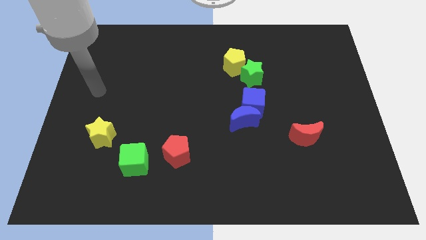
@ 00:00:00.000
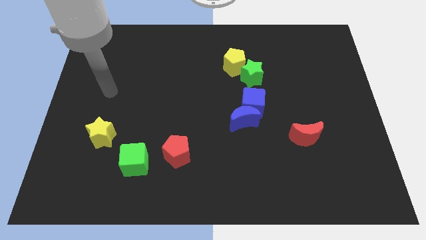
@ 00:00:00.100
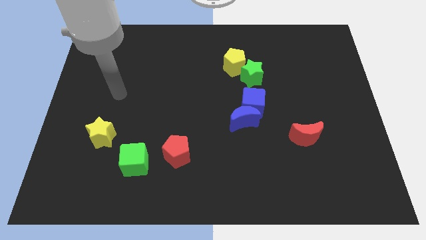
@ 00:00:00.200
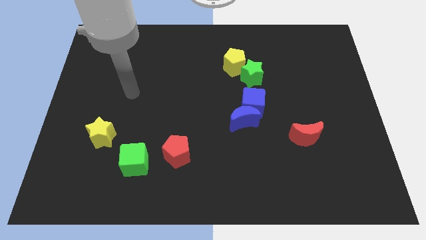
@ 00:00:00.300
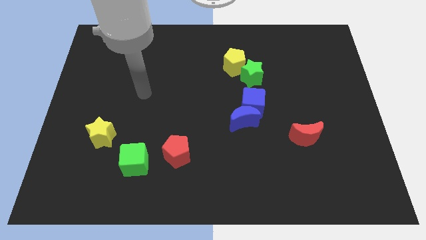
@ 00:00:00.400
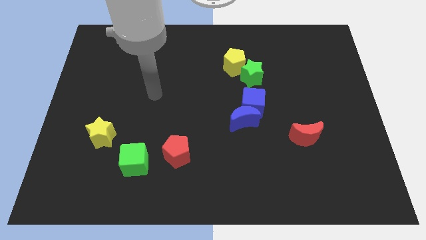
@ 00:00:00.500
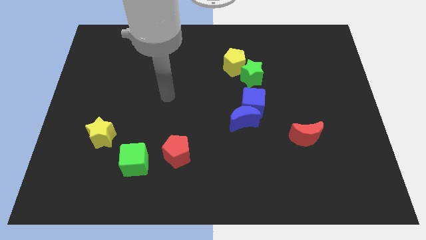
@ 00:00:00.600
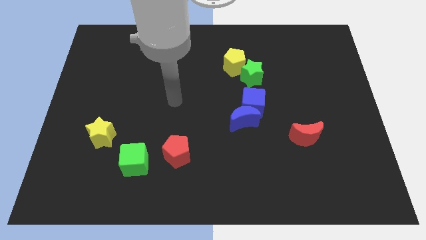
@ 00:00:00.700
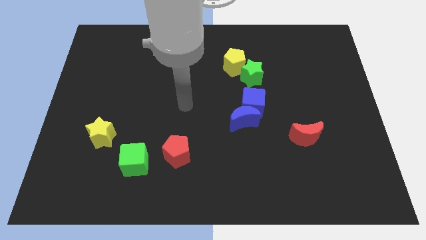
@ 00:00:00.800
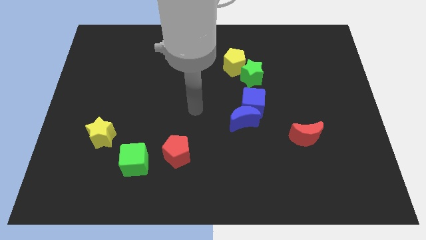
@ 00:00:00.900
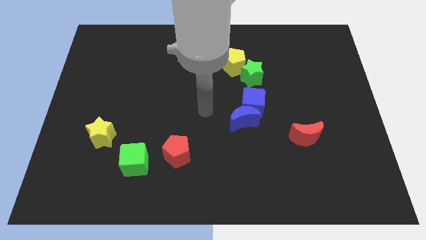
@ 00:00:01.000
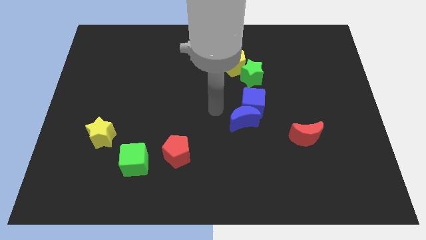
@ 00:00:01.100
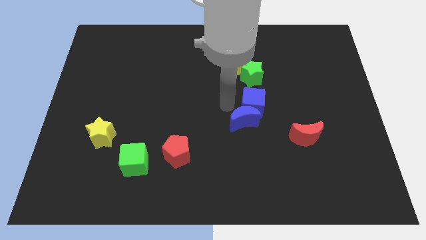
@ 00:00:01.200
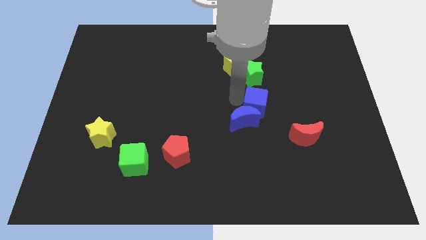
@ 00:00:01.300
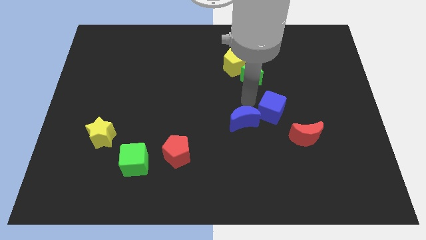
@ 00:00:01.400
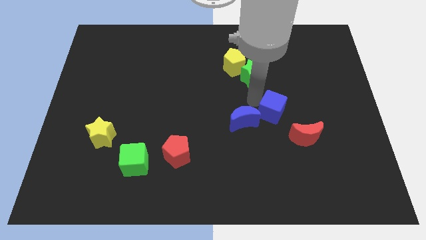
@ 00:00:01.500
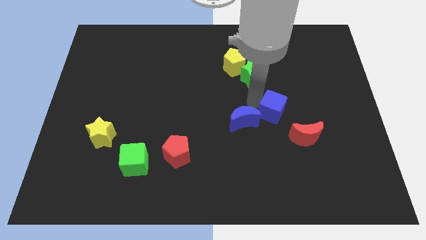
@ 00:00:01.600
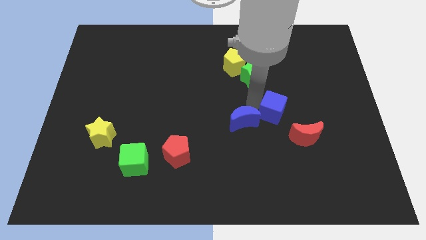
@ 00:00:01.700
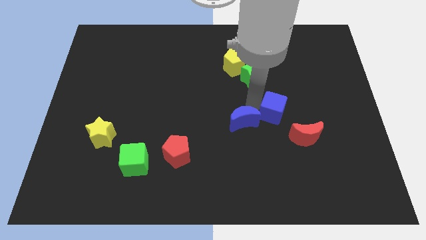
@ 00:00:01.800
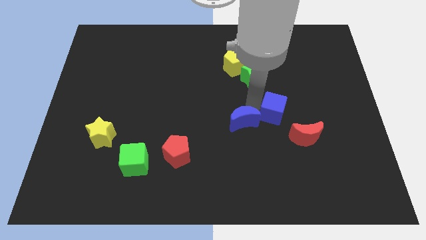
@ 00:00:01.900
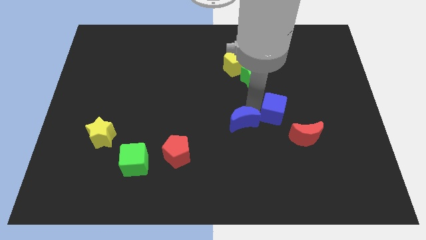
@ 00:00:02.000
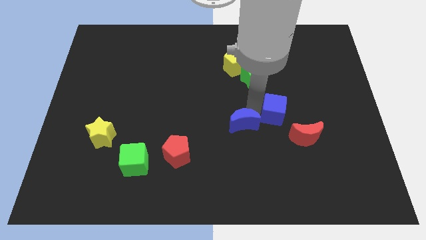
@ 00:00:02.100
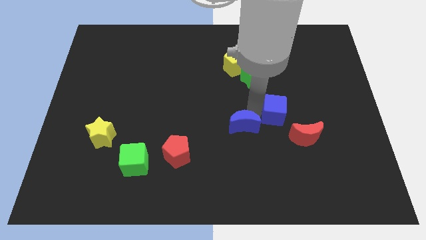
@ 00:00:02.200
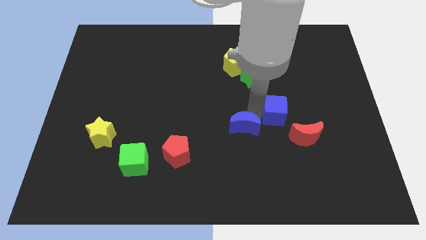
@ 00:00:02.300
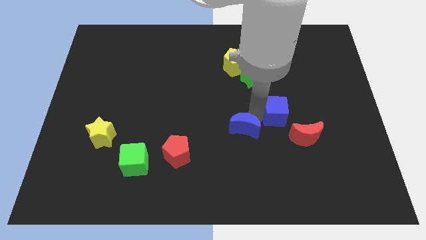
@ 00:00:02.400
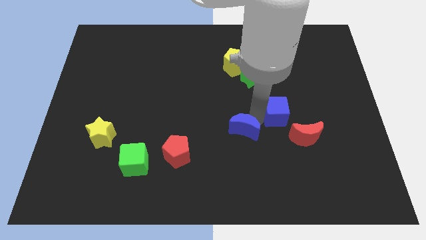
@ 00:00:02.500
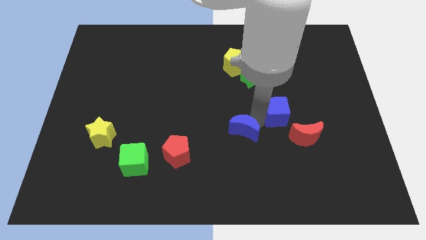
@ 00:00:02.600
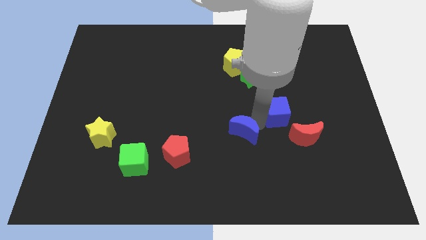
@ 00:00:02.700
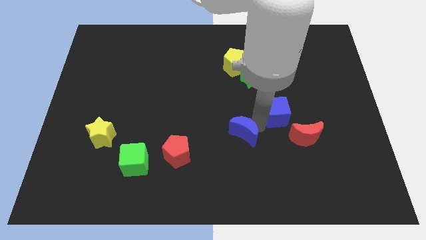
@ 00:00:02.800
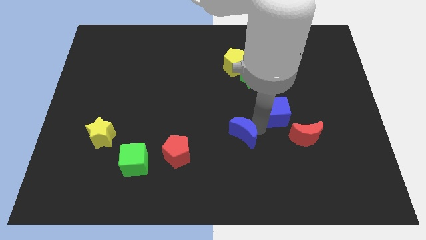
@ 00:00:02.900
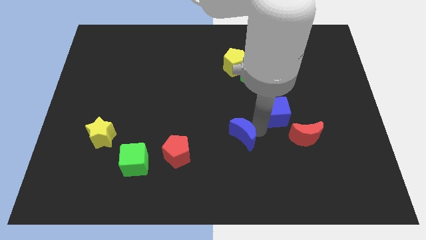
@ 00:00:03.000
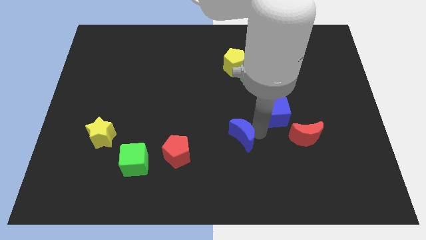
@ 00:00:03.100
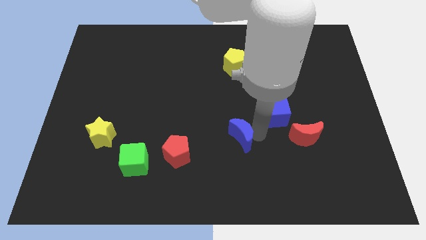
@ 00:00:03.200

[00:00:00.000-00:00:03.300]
pull the blue moon apart from the blue cube

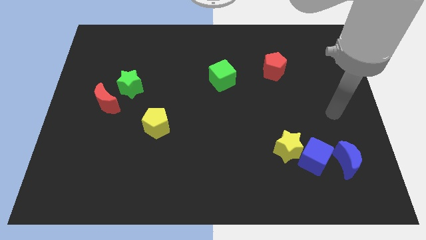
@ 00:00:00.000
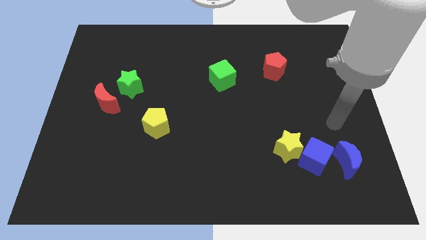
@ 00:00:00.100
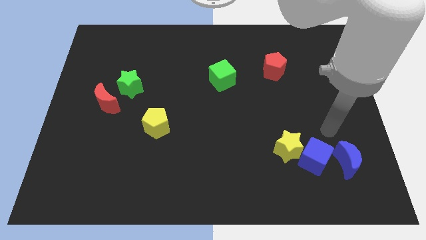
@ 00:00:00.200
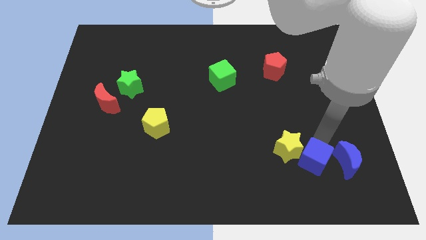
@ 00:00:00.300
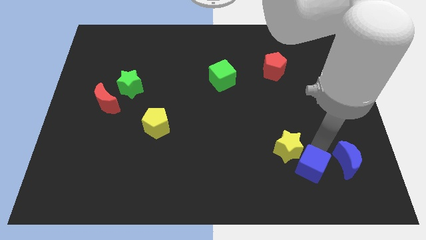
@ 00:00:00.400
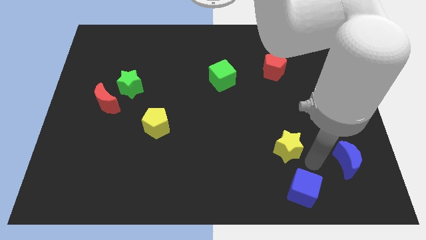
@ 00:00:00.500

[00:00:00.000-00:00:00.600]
move the yellow star away from the blue cube

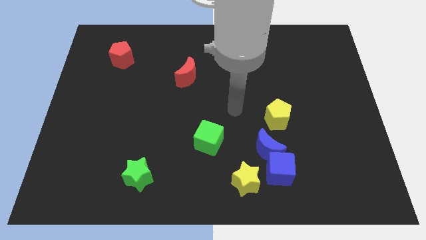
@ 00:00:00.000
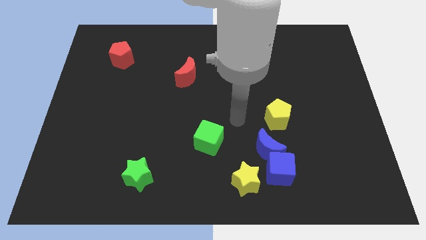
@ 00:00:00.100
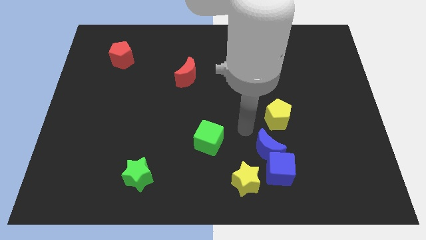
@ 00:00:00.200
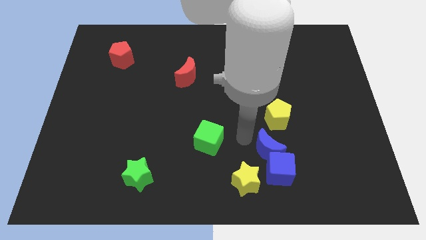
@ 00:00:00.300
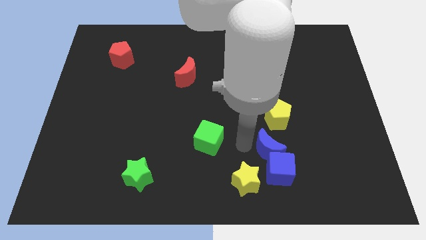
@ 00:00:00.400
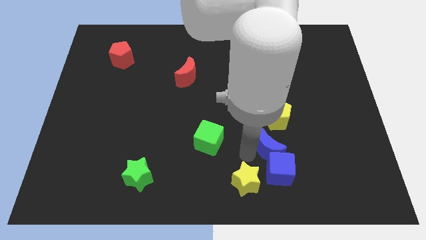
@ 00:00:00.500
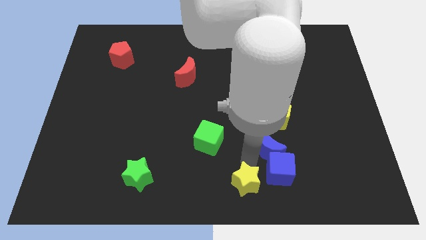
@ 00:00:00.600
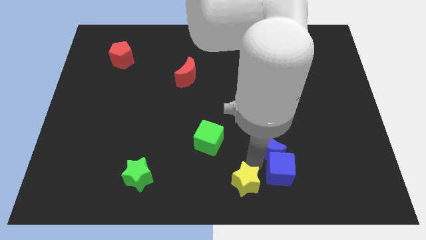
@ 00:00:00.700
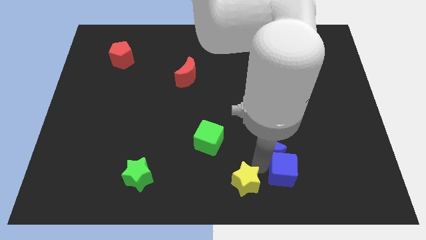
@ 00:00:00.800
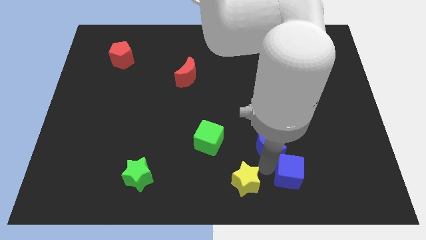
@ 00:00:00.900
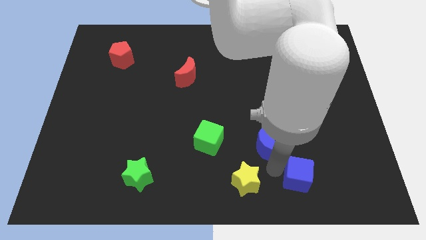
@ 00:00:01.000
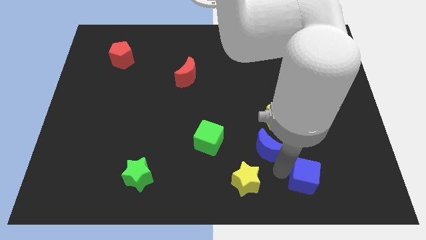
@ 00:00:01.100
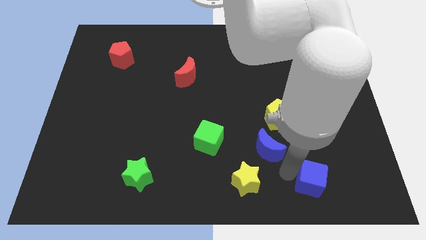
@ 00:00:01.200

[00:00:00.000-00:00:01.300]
pull the blue cube apart from the blue moon and yellow star

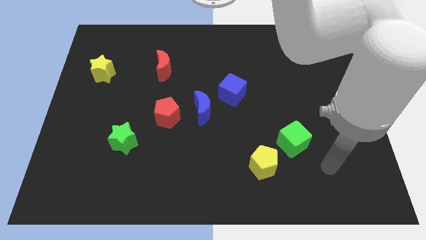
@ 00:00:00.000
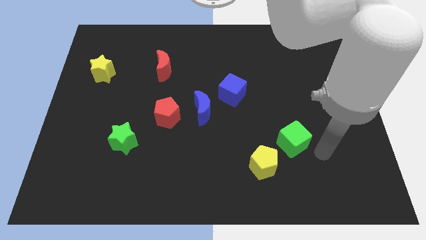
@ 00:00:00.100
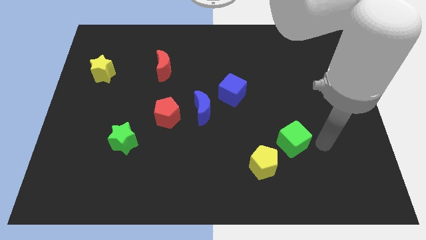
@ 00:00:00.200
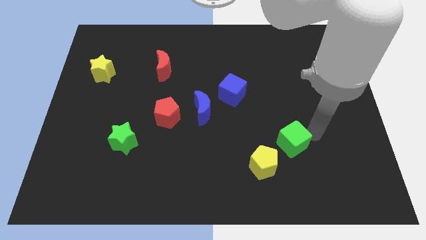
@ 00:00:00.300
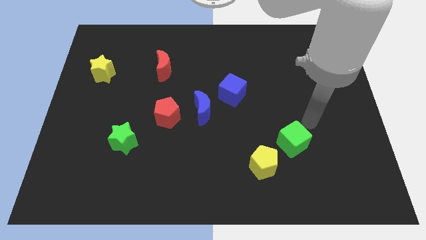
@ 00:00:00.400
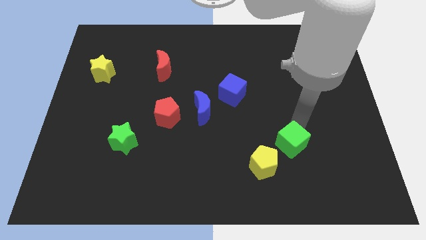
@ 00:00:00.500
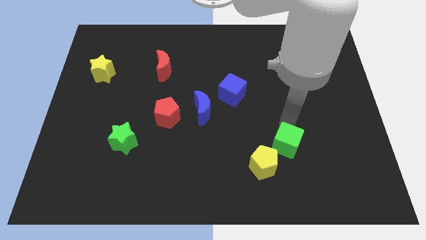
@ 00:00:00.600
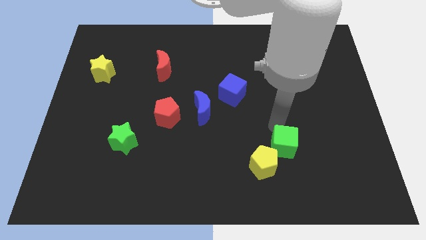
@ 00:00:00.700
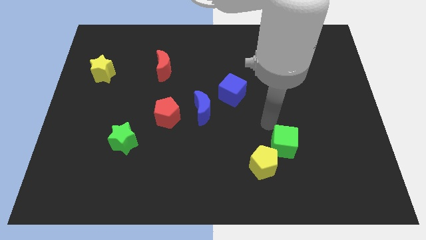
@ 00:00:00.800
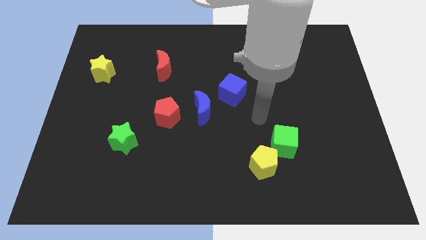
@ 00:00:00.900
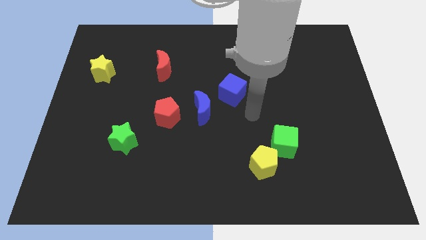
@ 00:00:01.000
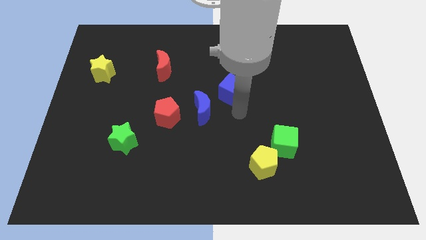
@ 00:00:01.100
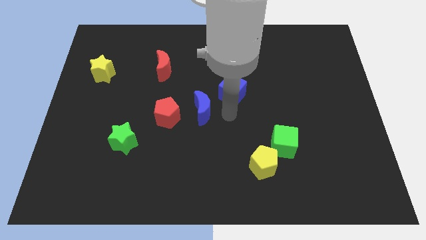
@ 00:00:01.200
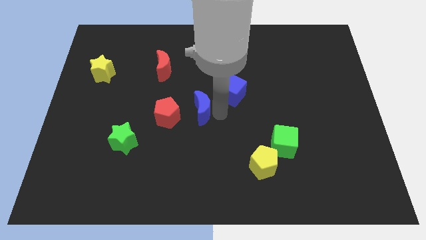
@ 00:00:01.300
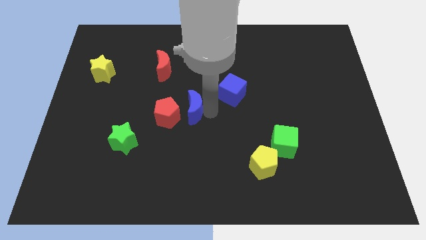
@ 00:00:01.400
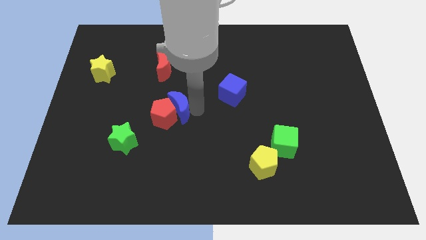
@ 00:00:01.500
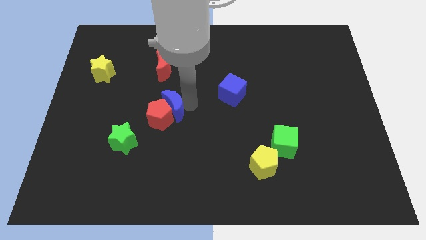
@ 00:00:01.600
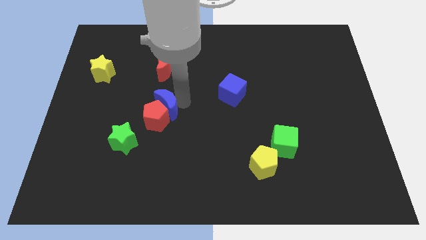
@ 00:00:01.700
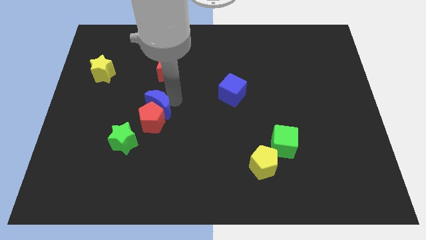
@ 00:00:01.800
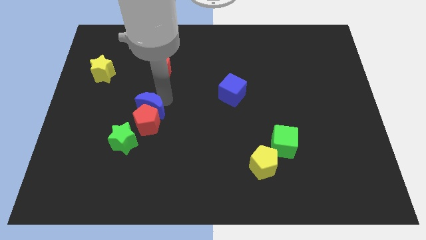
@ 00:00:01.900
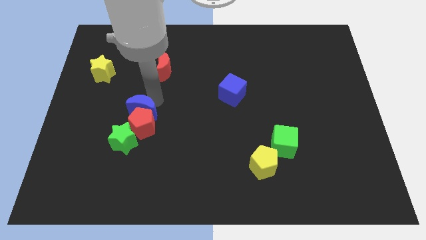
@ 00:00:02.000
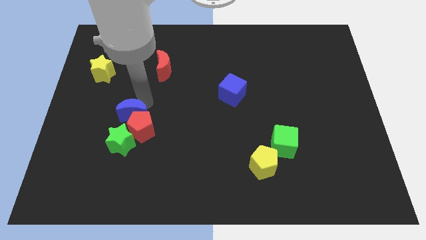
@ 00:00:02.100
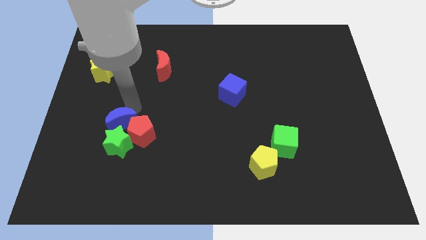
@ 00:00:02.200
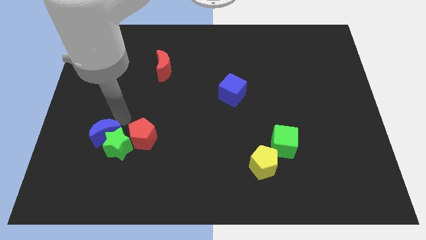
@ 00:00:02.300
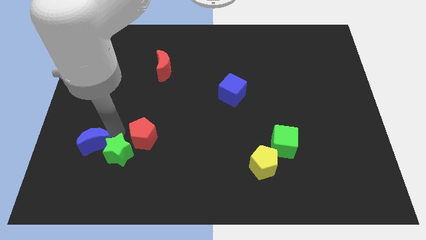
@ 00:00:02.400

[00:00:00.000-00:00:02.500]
move the red pentagon away from the blue moon

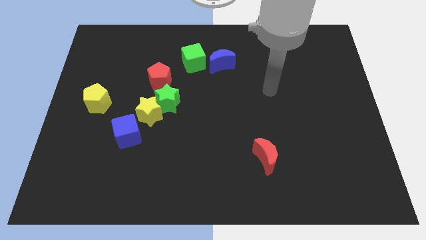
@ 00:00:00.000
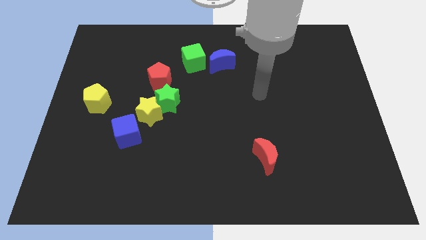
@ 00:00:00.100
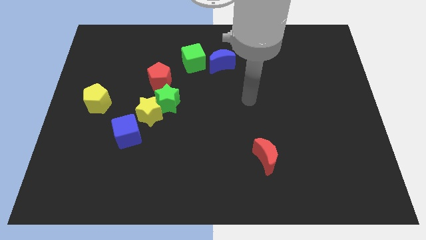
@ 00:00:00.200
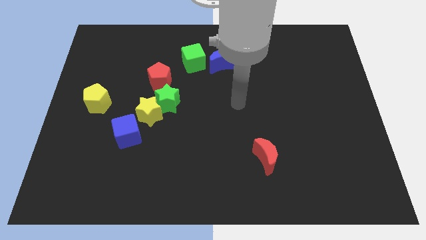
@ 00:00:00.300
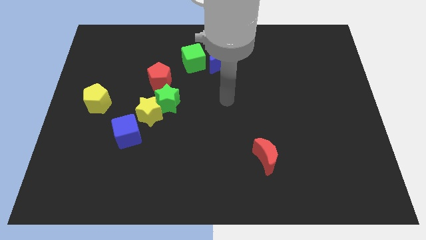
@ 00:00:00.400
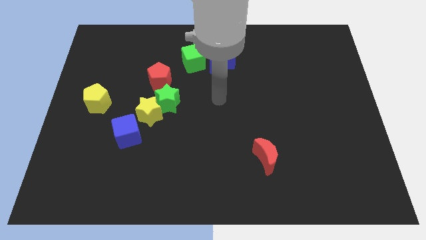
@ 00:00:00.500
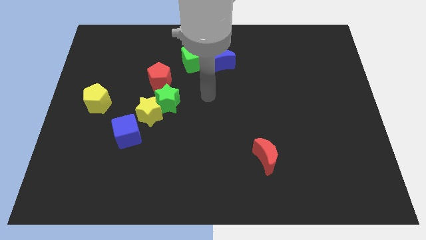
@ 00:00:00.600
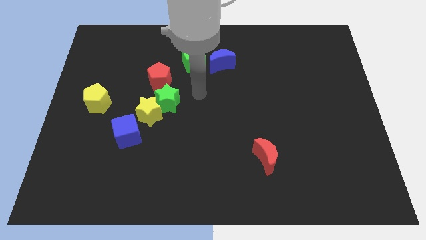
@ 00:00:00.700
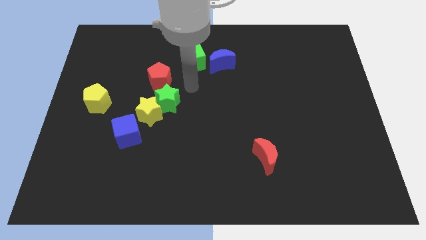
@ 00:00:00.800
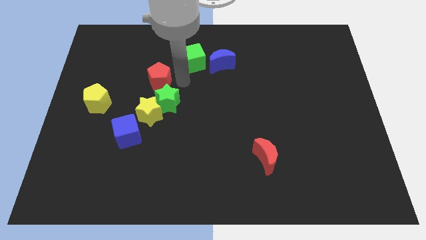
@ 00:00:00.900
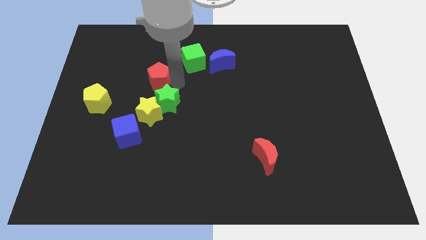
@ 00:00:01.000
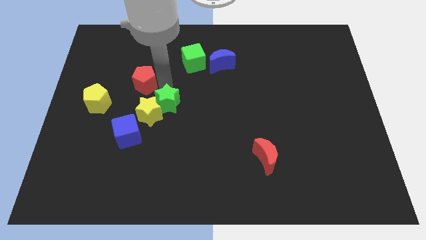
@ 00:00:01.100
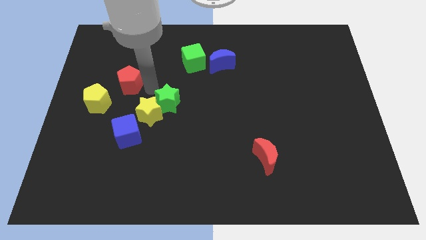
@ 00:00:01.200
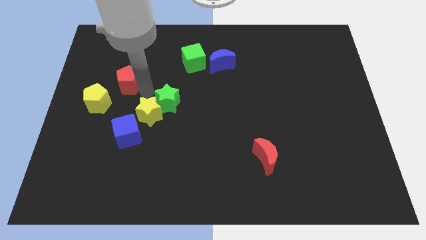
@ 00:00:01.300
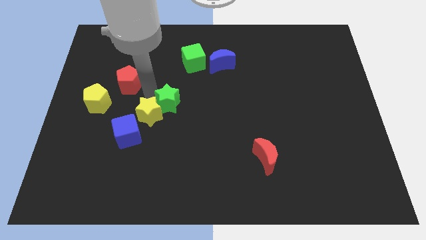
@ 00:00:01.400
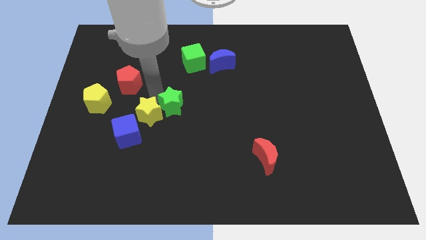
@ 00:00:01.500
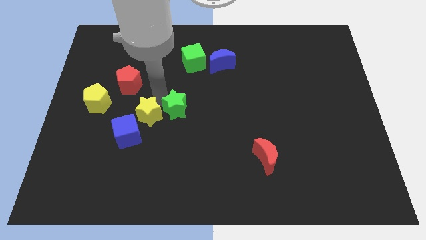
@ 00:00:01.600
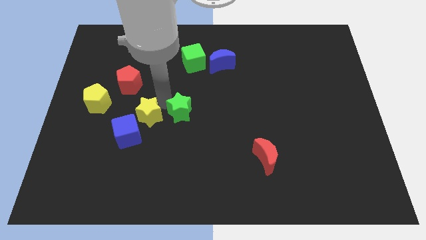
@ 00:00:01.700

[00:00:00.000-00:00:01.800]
move the green star away from the yellow star and red pentagon
